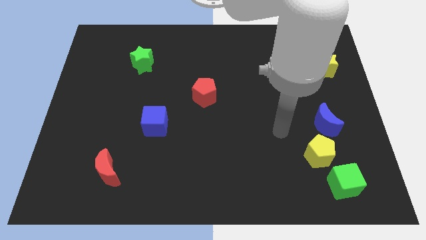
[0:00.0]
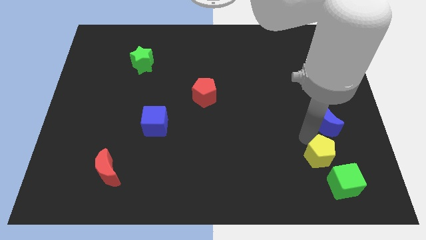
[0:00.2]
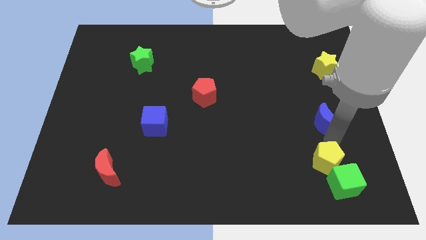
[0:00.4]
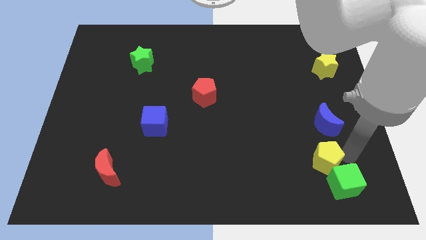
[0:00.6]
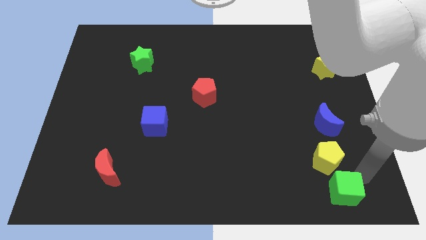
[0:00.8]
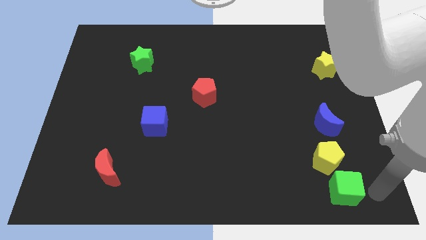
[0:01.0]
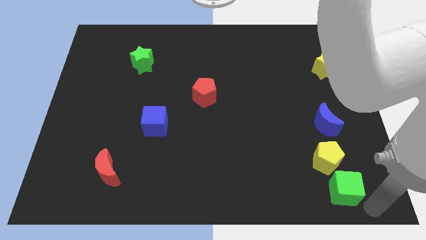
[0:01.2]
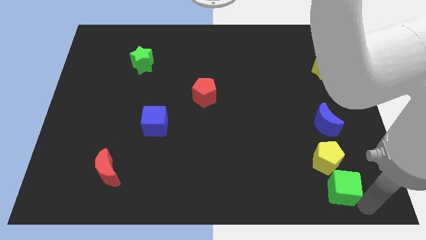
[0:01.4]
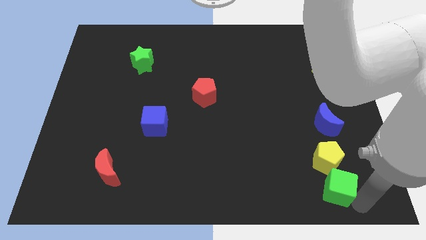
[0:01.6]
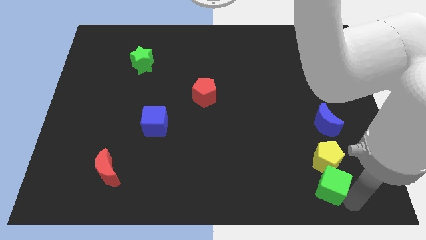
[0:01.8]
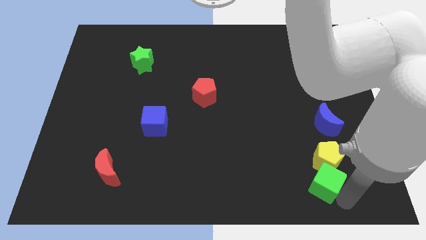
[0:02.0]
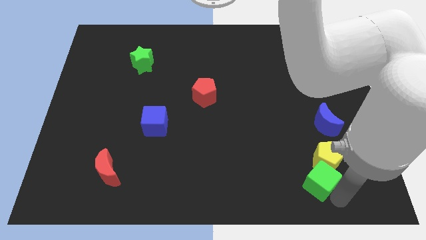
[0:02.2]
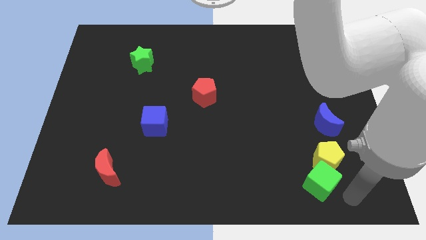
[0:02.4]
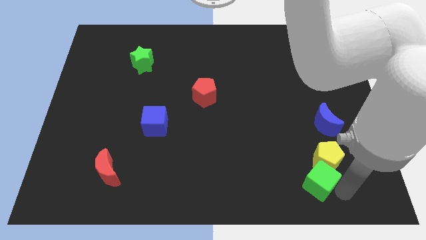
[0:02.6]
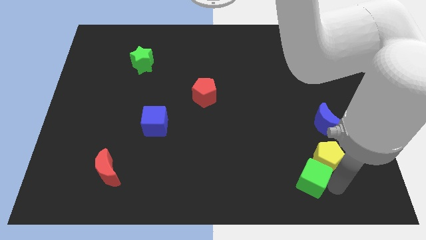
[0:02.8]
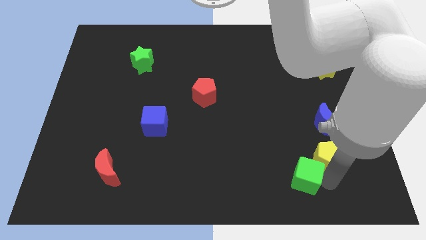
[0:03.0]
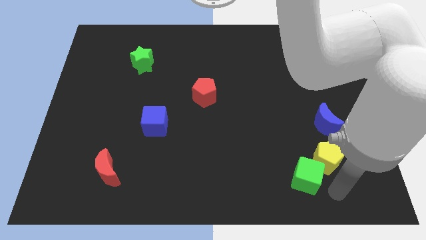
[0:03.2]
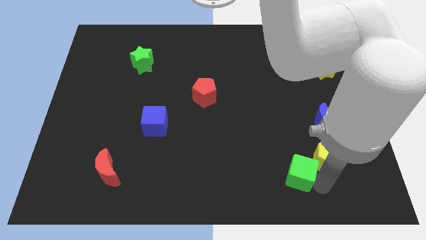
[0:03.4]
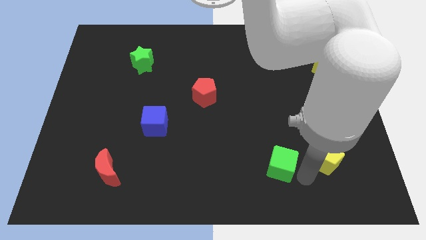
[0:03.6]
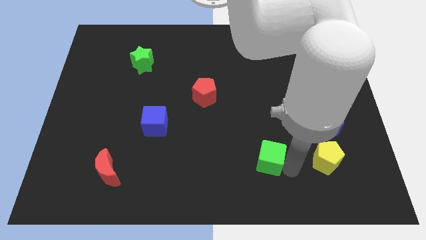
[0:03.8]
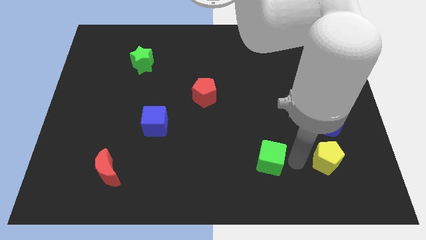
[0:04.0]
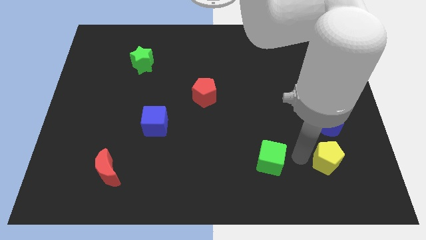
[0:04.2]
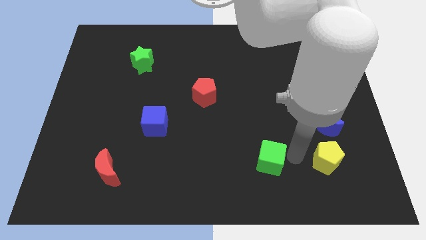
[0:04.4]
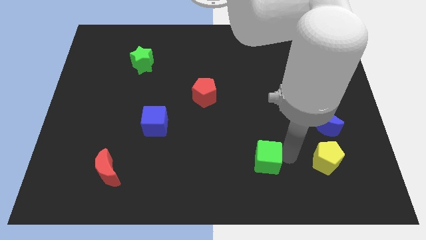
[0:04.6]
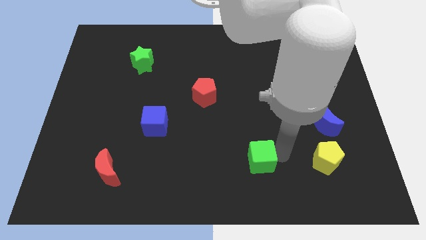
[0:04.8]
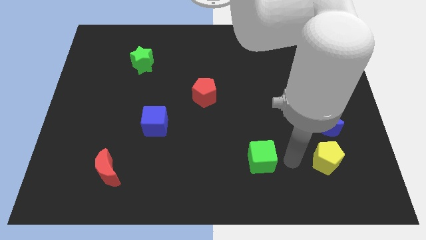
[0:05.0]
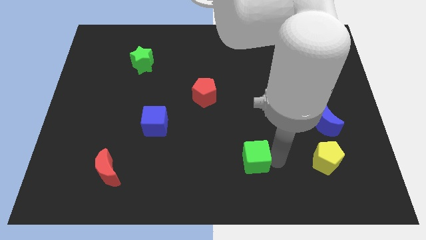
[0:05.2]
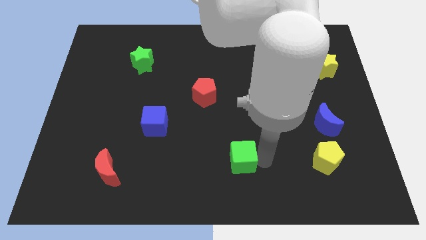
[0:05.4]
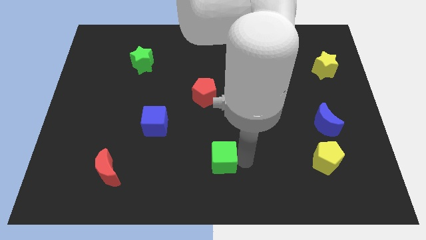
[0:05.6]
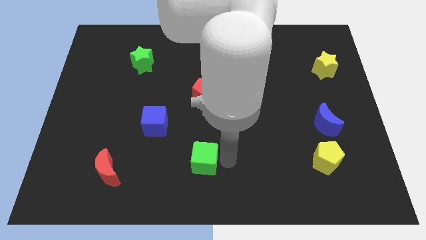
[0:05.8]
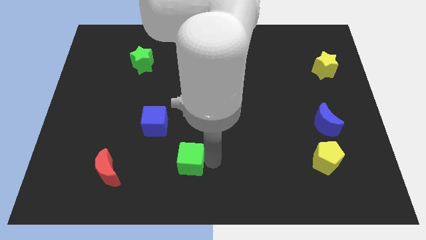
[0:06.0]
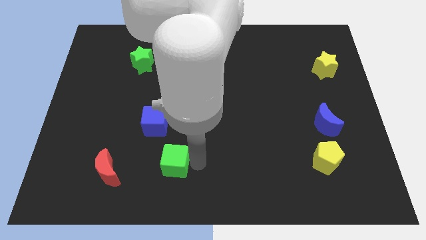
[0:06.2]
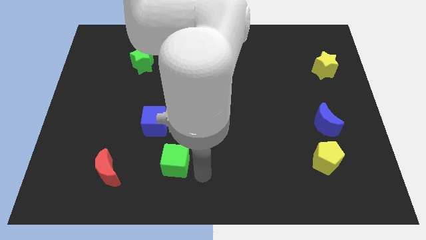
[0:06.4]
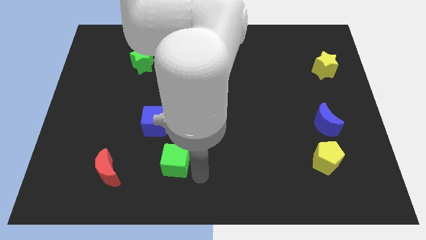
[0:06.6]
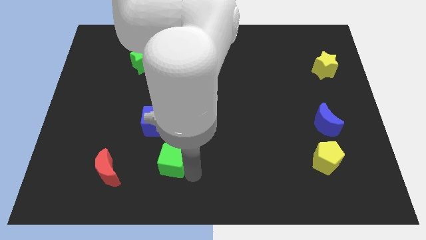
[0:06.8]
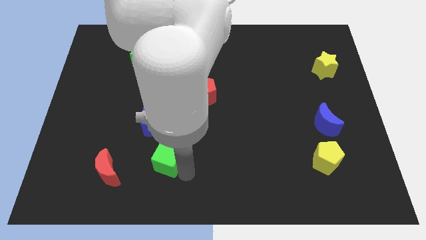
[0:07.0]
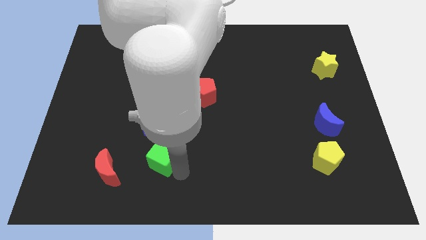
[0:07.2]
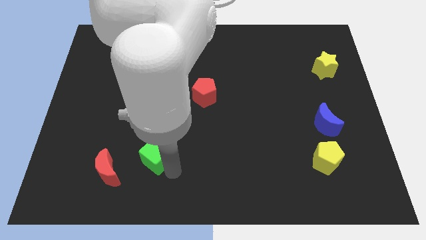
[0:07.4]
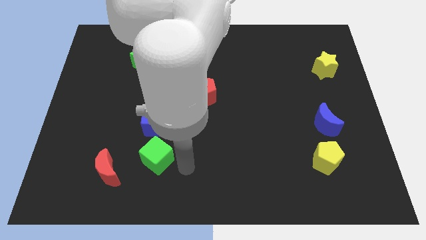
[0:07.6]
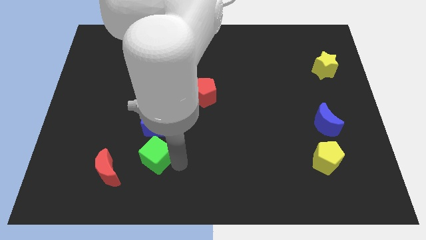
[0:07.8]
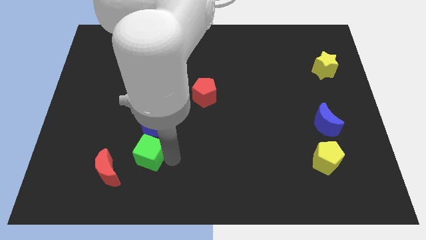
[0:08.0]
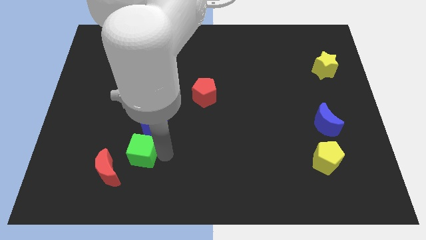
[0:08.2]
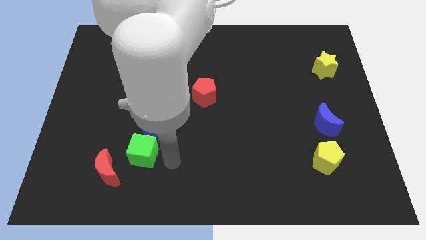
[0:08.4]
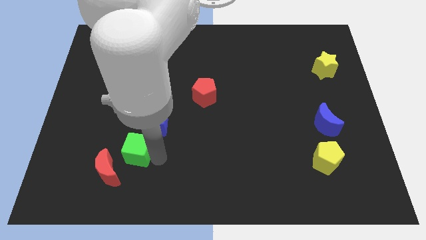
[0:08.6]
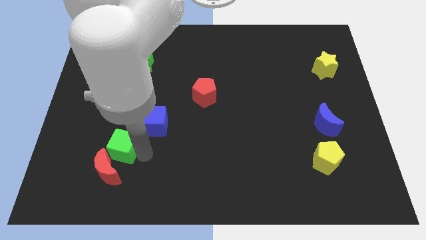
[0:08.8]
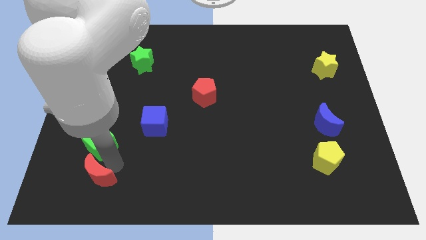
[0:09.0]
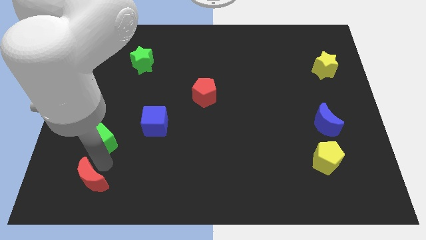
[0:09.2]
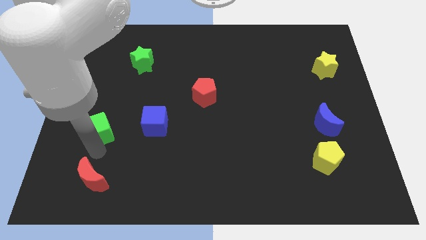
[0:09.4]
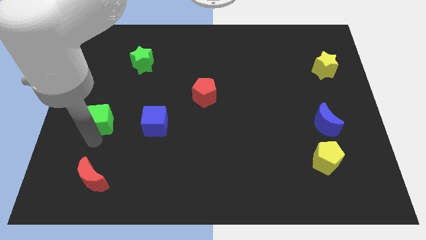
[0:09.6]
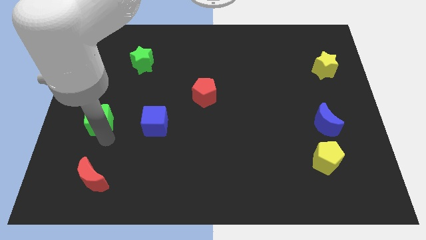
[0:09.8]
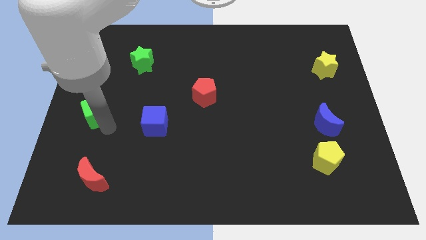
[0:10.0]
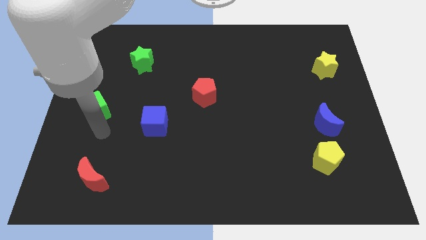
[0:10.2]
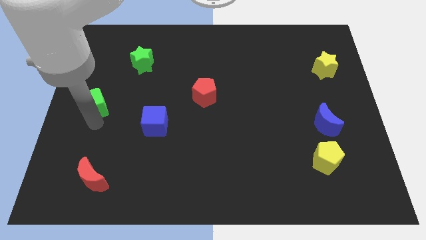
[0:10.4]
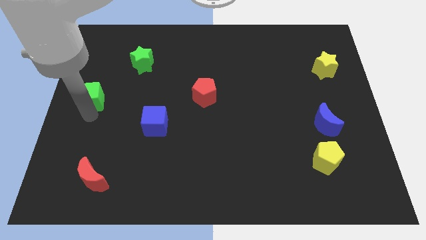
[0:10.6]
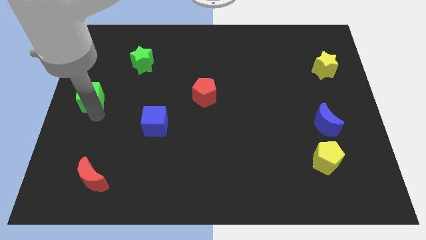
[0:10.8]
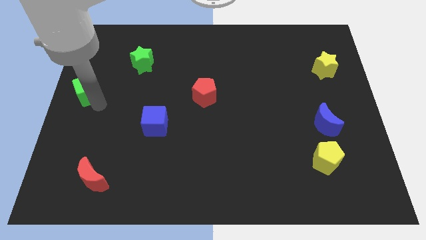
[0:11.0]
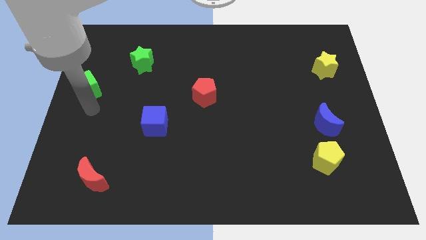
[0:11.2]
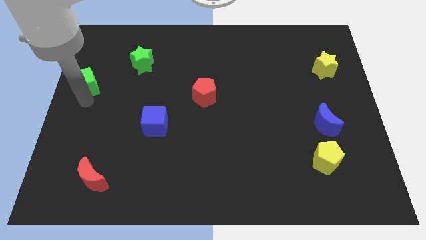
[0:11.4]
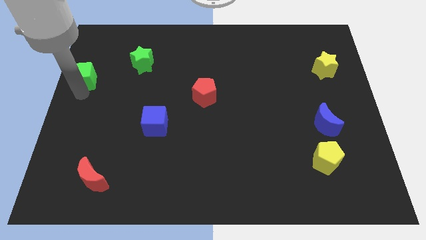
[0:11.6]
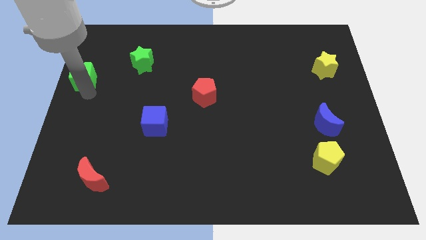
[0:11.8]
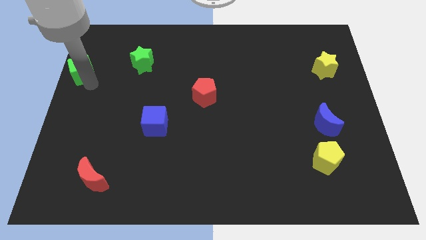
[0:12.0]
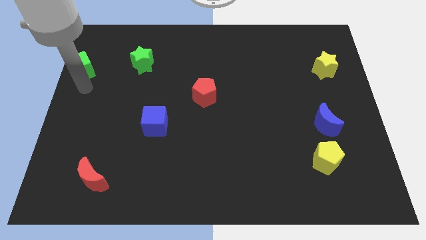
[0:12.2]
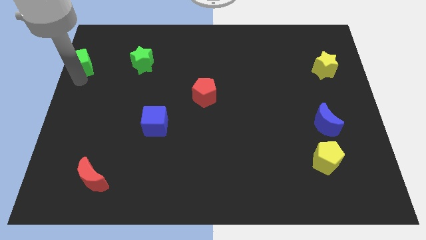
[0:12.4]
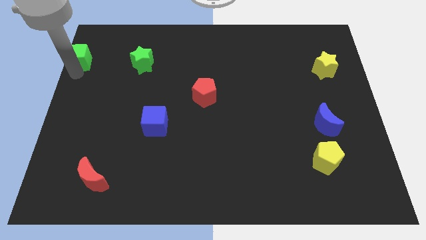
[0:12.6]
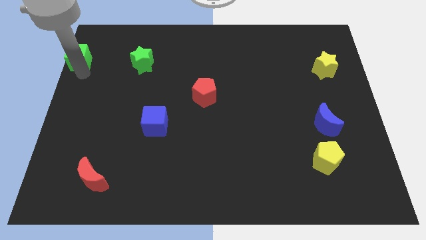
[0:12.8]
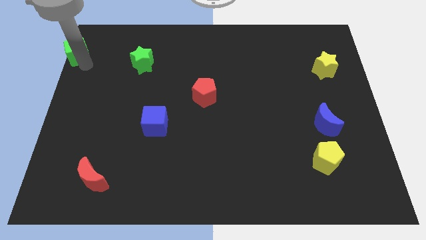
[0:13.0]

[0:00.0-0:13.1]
push the green cube to the top left of the board
